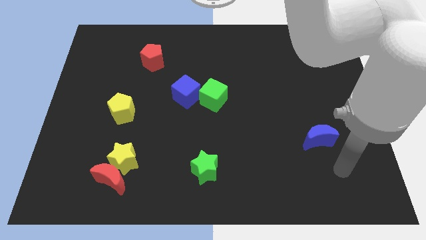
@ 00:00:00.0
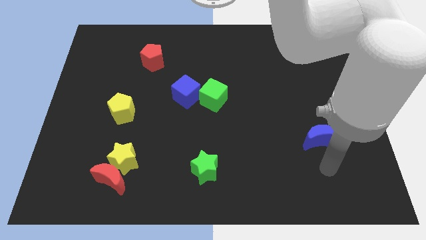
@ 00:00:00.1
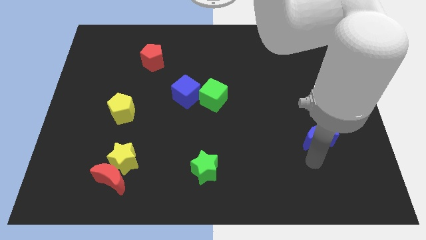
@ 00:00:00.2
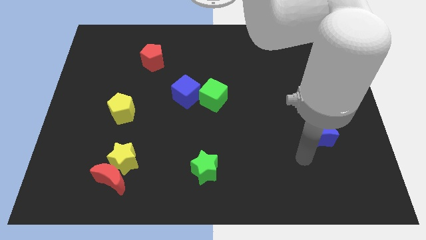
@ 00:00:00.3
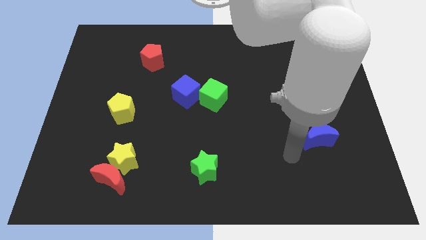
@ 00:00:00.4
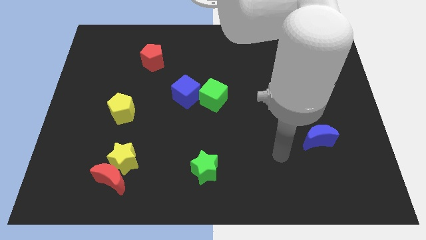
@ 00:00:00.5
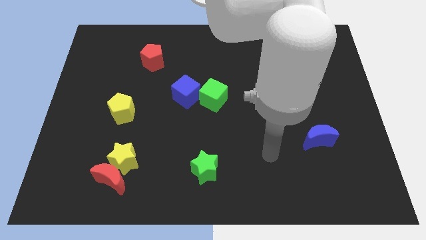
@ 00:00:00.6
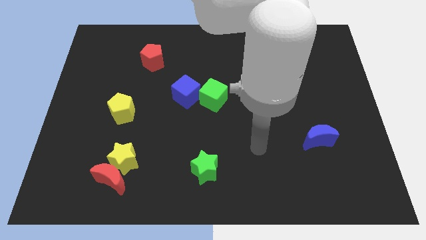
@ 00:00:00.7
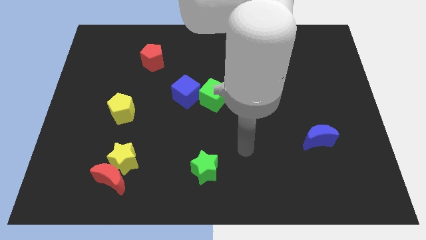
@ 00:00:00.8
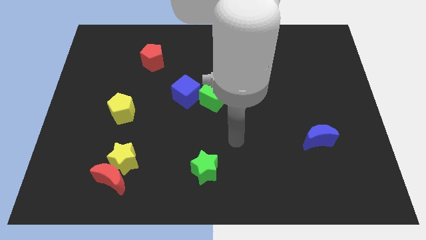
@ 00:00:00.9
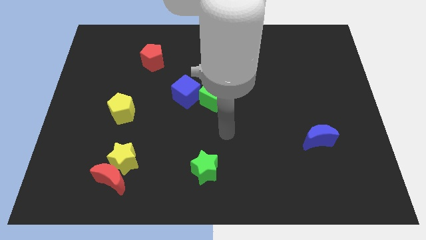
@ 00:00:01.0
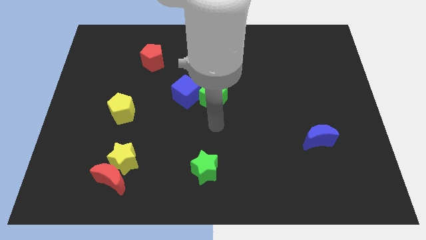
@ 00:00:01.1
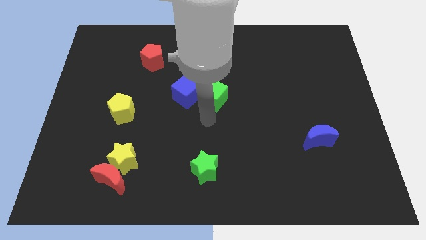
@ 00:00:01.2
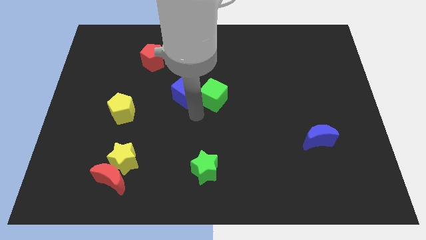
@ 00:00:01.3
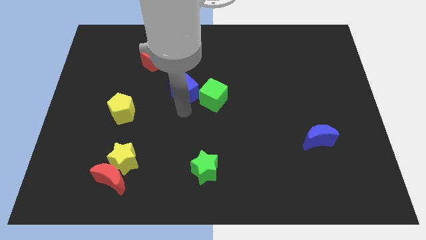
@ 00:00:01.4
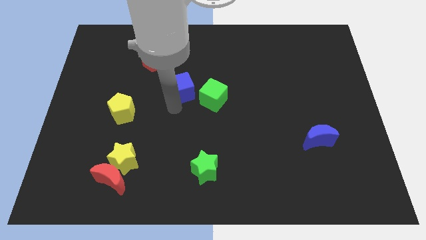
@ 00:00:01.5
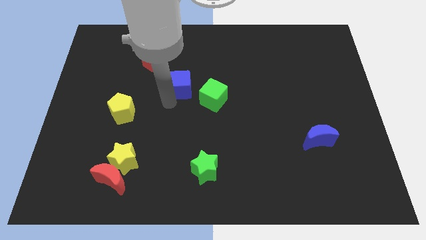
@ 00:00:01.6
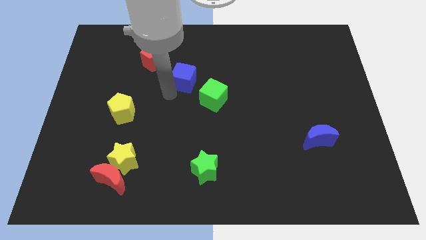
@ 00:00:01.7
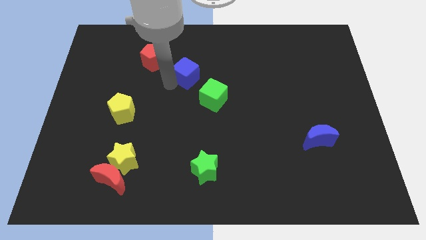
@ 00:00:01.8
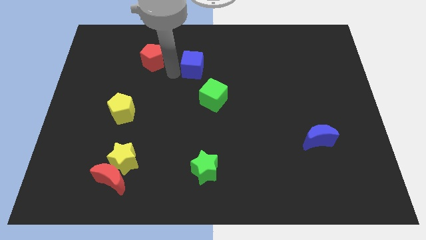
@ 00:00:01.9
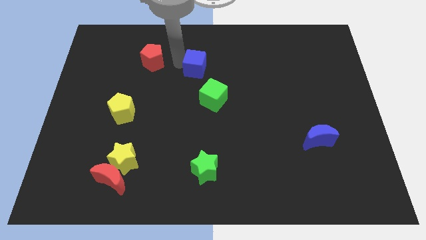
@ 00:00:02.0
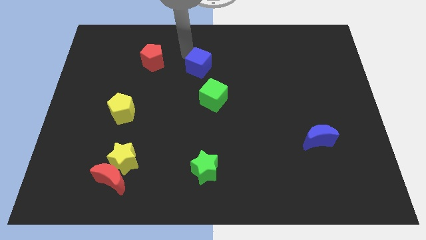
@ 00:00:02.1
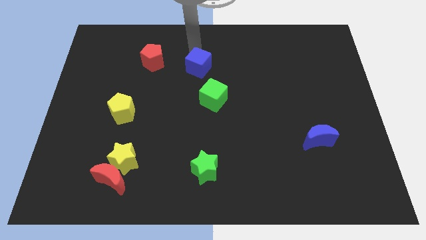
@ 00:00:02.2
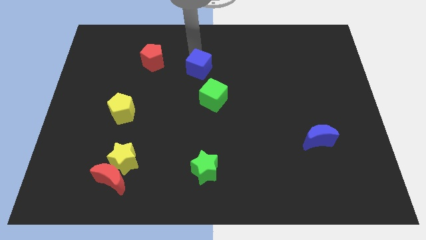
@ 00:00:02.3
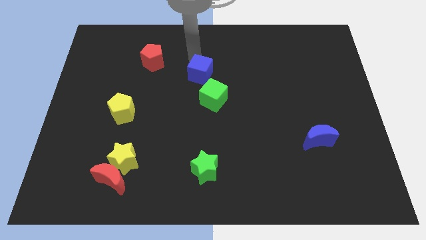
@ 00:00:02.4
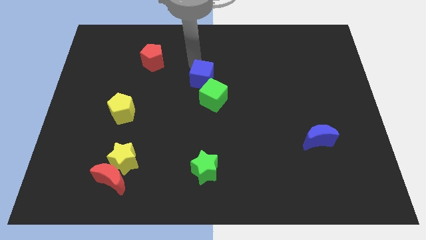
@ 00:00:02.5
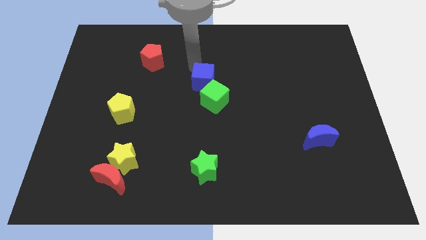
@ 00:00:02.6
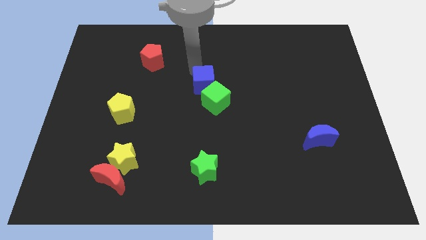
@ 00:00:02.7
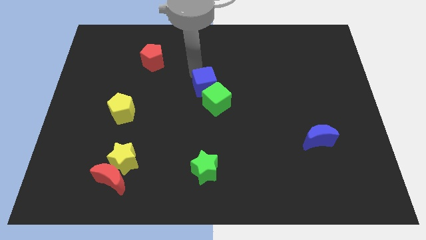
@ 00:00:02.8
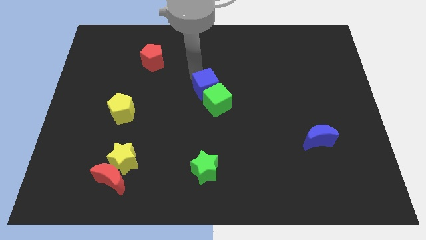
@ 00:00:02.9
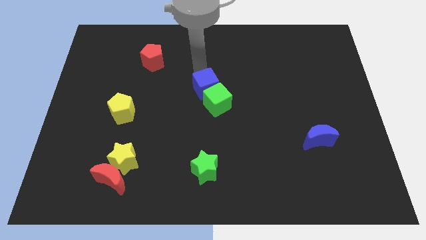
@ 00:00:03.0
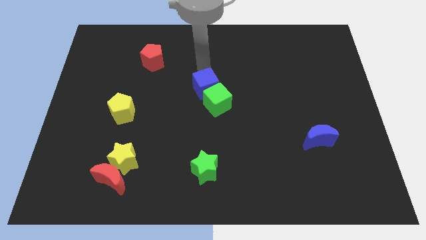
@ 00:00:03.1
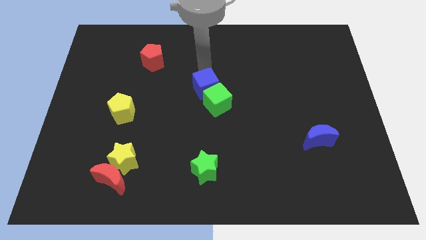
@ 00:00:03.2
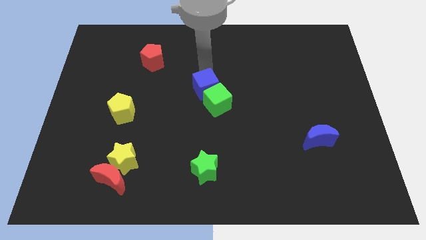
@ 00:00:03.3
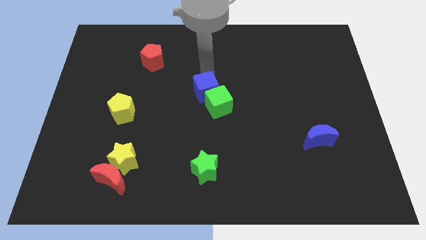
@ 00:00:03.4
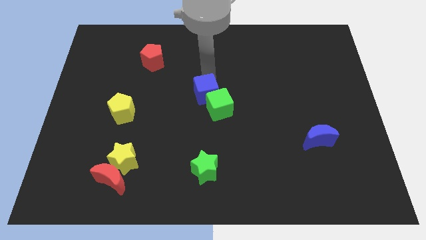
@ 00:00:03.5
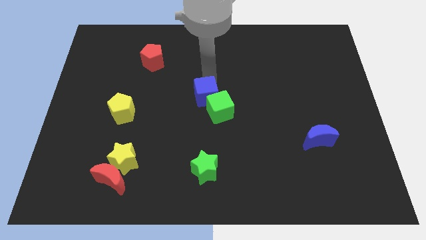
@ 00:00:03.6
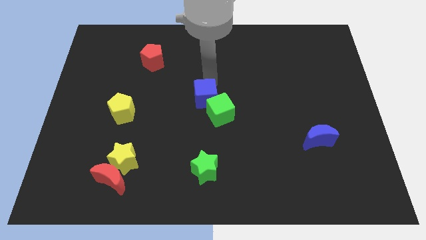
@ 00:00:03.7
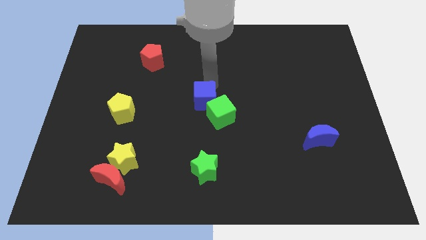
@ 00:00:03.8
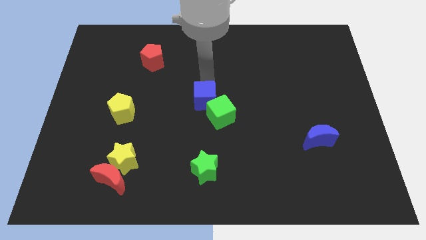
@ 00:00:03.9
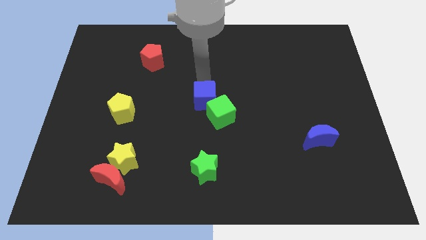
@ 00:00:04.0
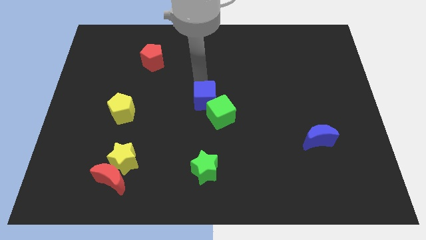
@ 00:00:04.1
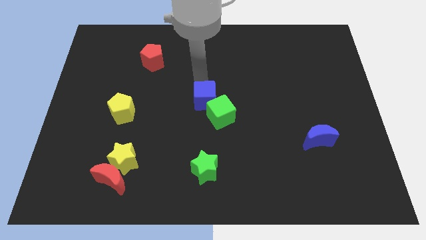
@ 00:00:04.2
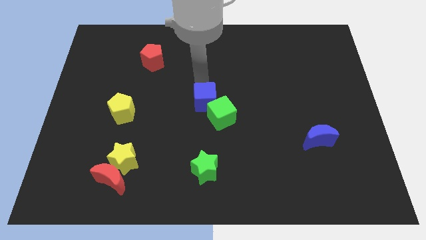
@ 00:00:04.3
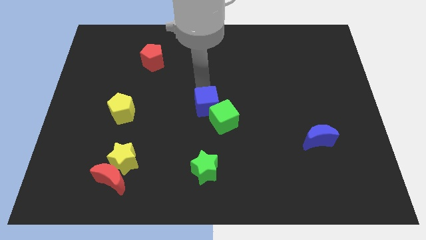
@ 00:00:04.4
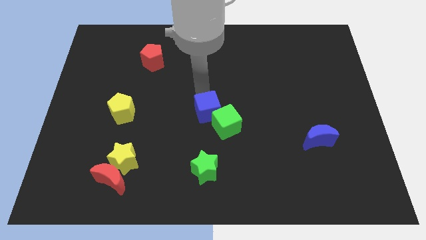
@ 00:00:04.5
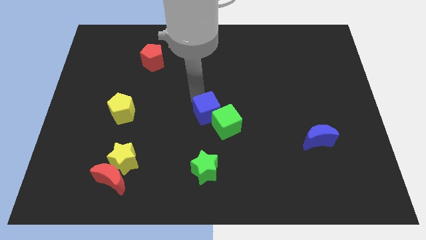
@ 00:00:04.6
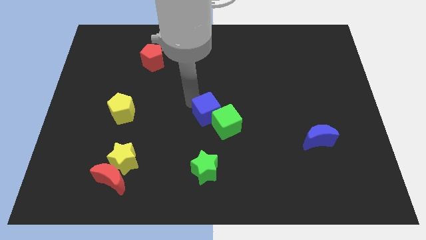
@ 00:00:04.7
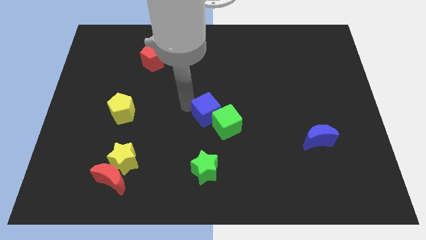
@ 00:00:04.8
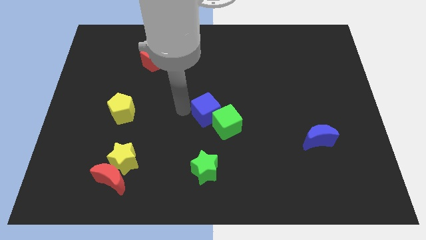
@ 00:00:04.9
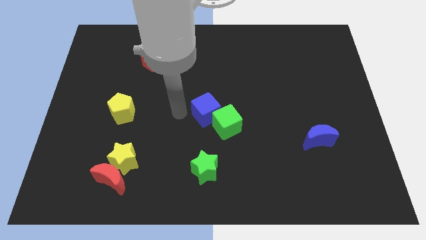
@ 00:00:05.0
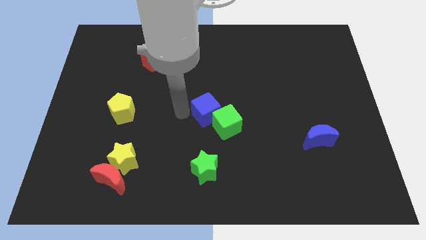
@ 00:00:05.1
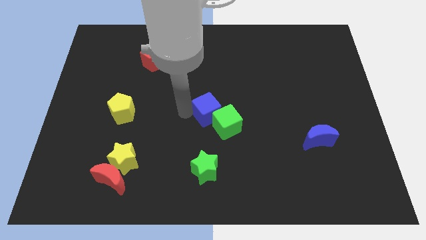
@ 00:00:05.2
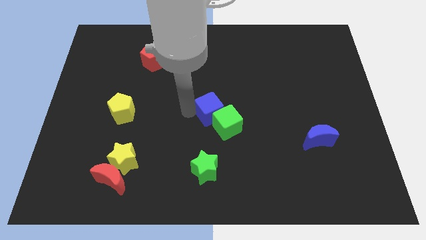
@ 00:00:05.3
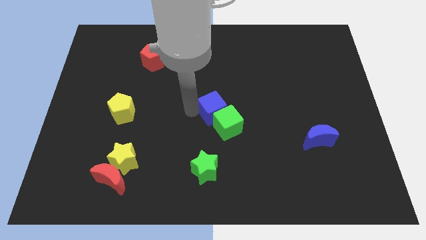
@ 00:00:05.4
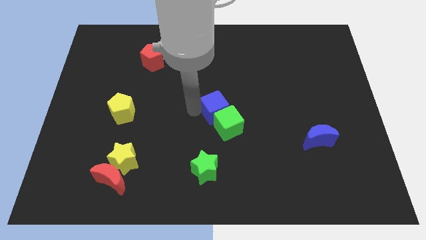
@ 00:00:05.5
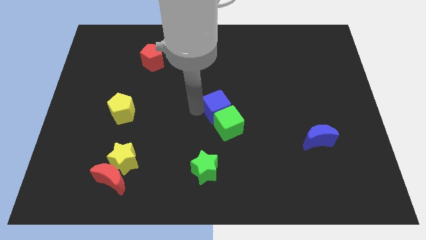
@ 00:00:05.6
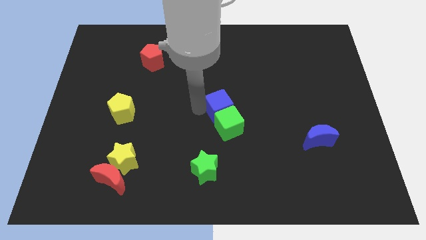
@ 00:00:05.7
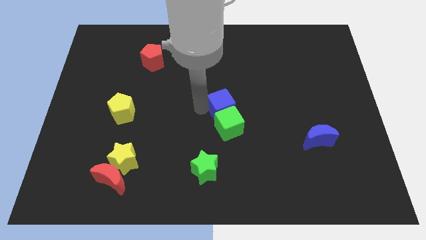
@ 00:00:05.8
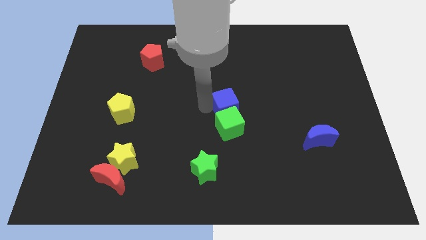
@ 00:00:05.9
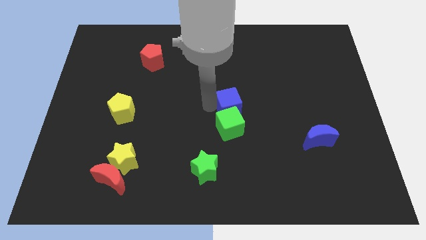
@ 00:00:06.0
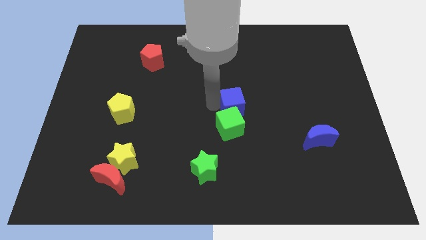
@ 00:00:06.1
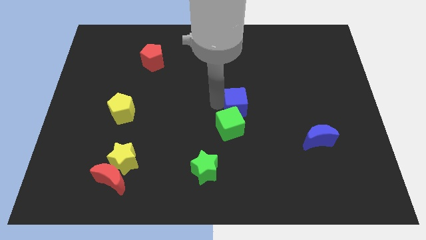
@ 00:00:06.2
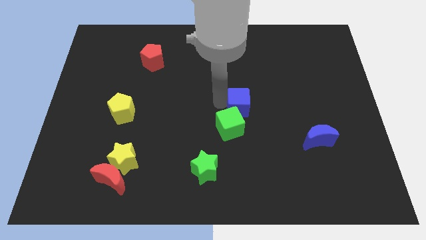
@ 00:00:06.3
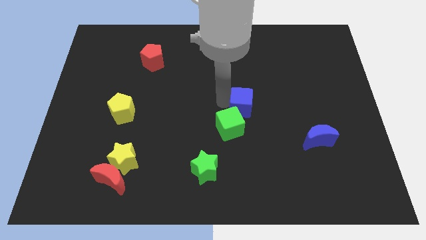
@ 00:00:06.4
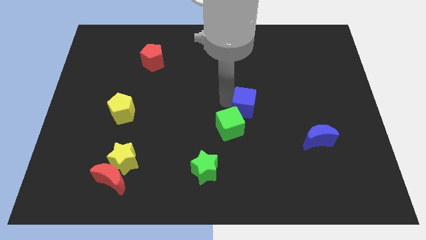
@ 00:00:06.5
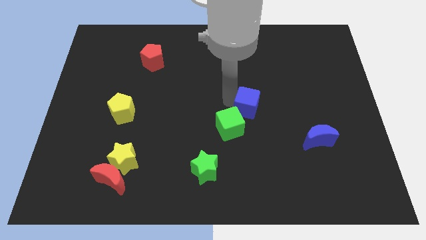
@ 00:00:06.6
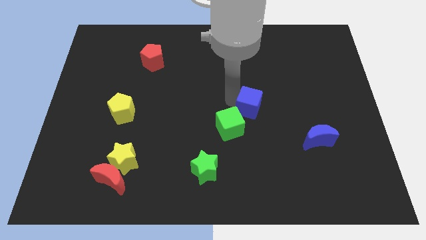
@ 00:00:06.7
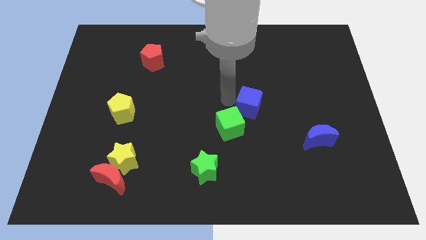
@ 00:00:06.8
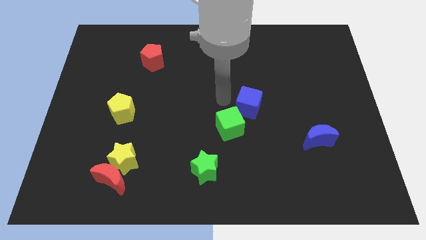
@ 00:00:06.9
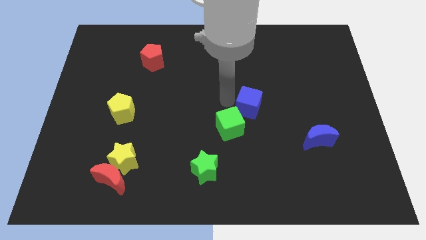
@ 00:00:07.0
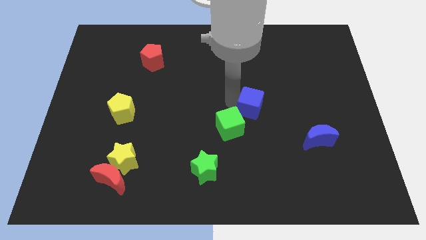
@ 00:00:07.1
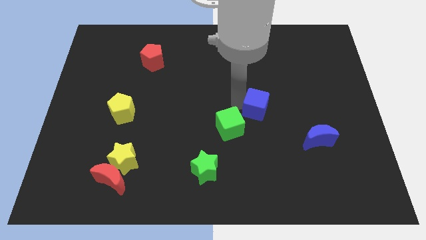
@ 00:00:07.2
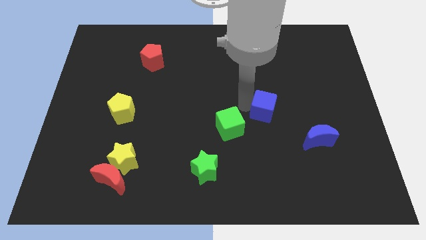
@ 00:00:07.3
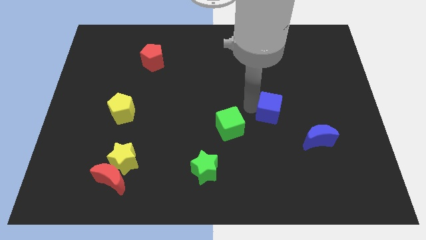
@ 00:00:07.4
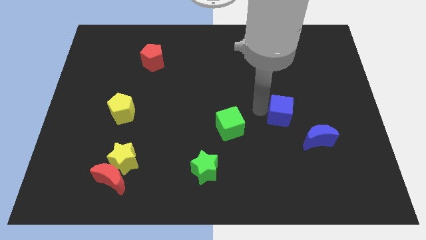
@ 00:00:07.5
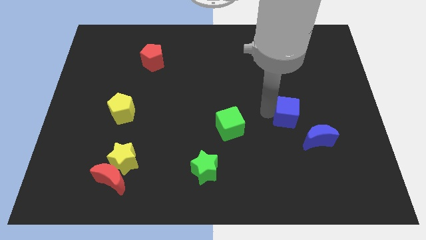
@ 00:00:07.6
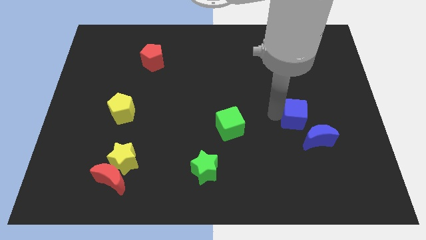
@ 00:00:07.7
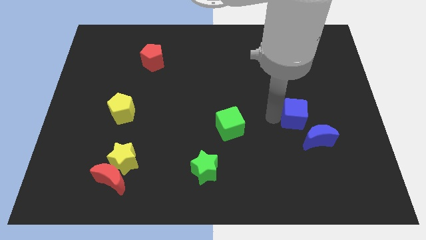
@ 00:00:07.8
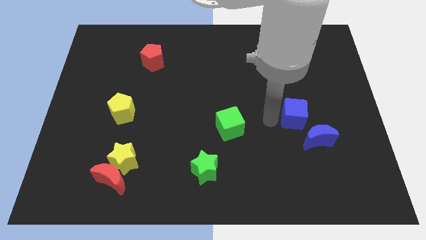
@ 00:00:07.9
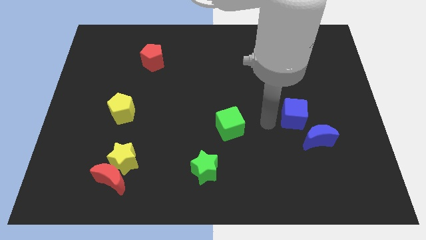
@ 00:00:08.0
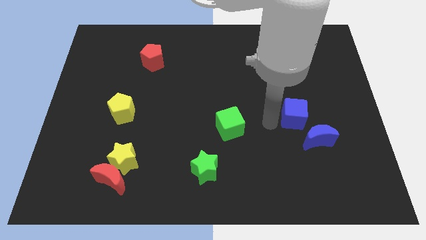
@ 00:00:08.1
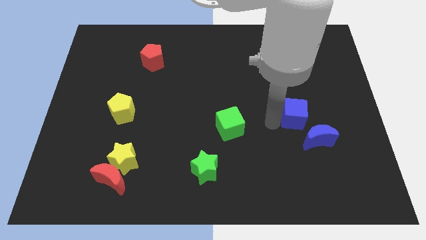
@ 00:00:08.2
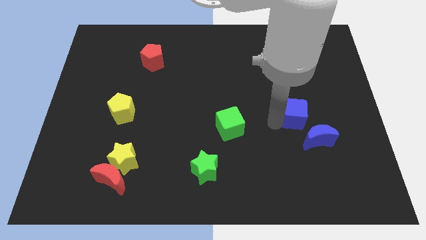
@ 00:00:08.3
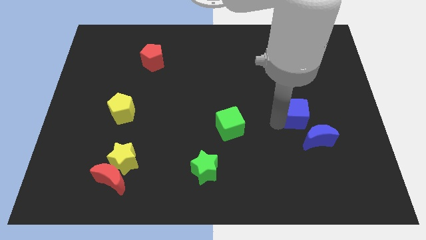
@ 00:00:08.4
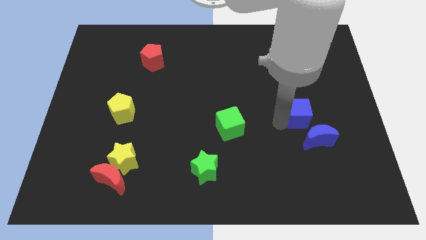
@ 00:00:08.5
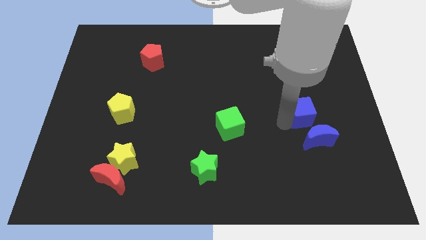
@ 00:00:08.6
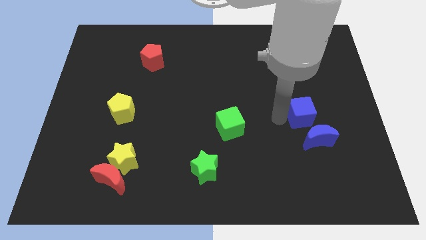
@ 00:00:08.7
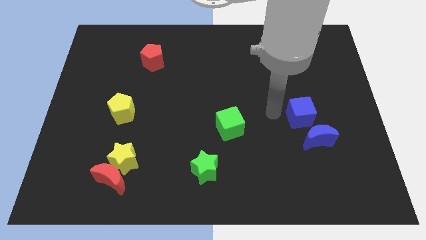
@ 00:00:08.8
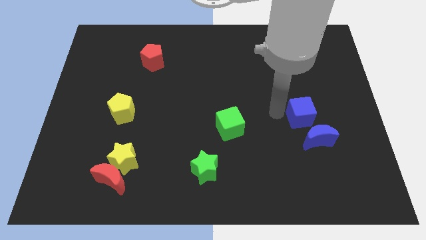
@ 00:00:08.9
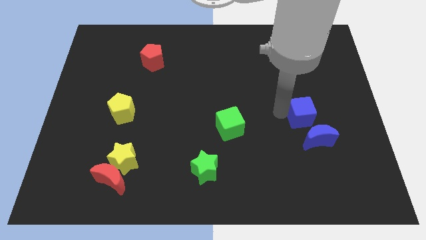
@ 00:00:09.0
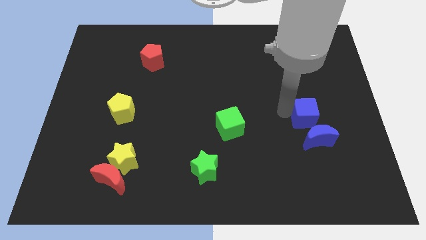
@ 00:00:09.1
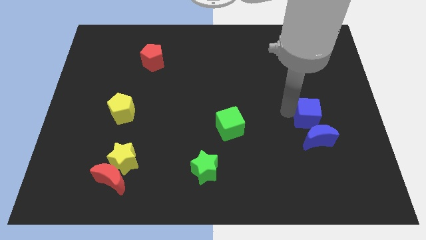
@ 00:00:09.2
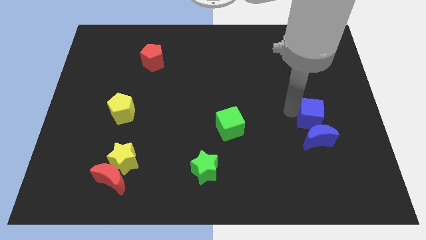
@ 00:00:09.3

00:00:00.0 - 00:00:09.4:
push the blue cube to the top right of the blue moon
